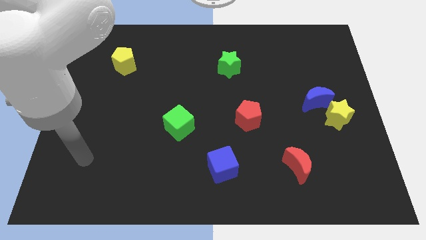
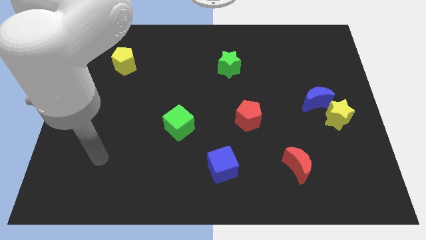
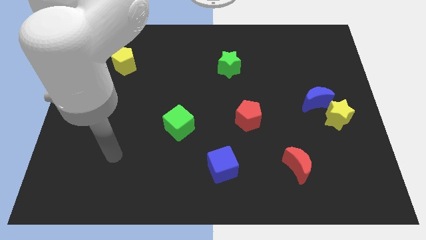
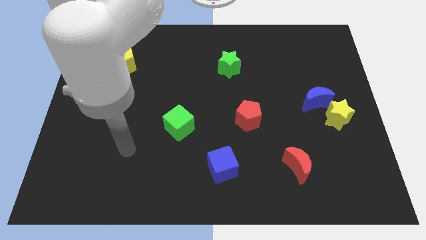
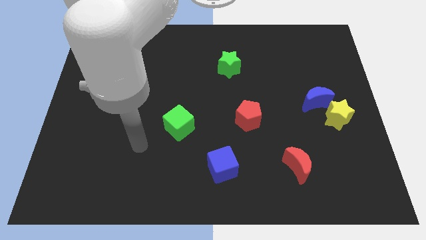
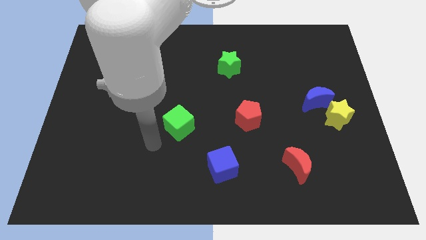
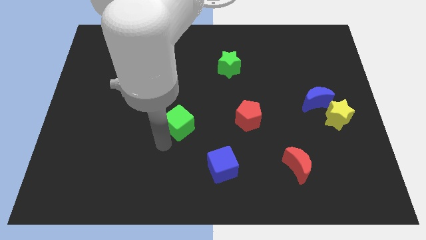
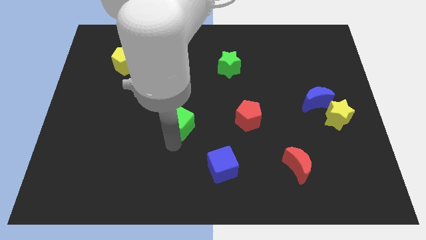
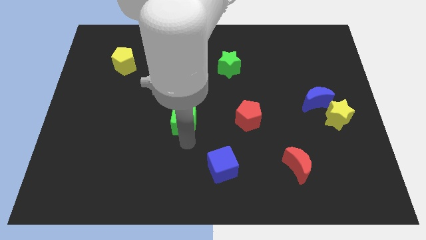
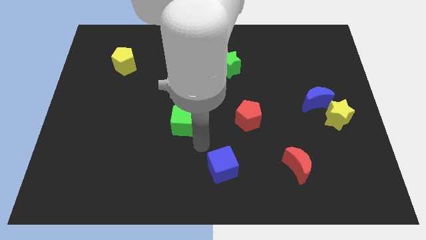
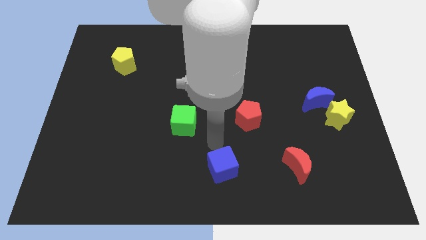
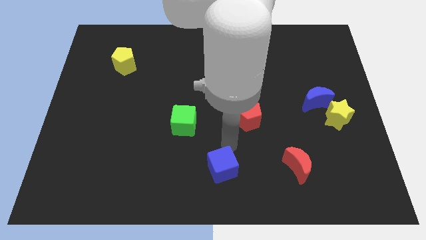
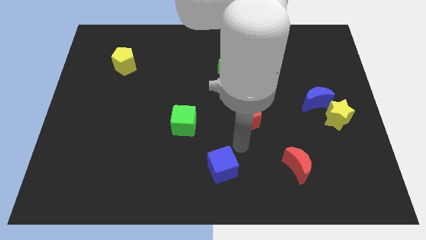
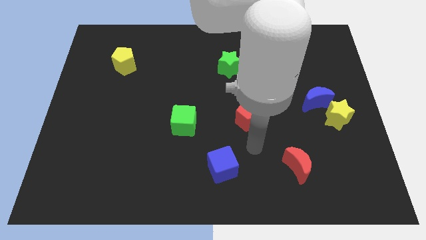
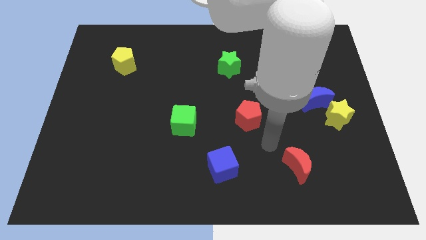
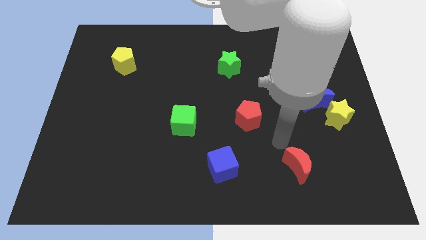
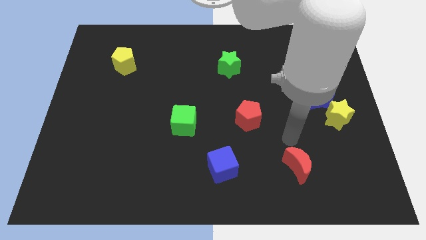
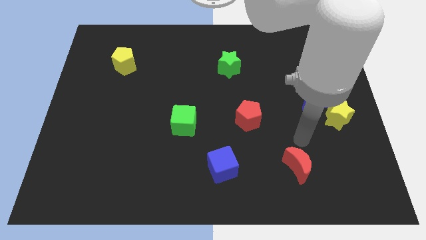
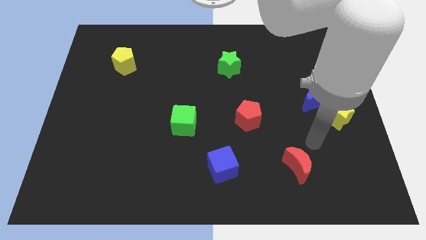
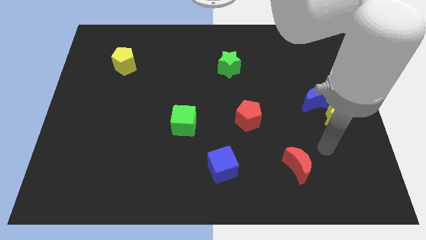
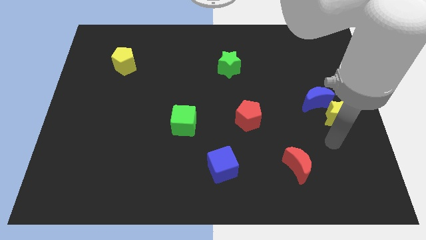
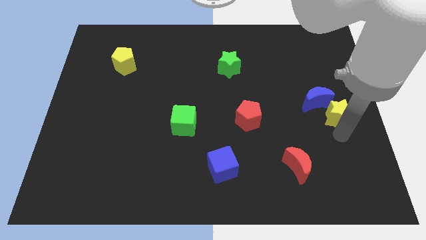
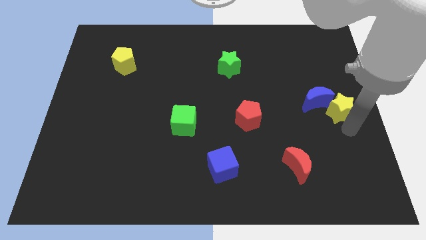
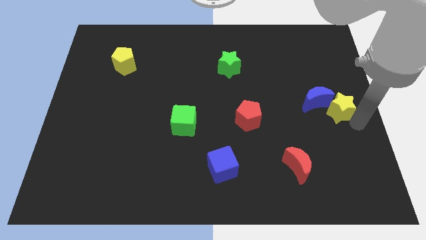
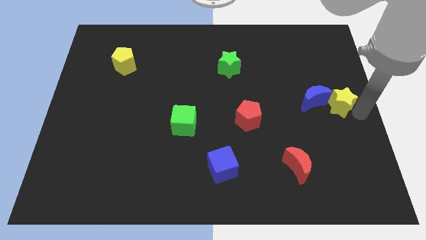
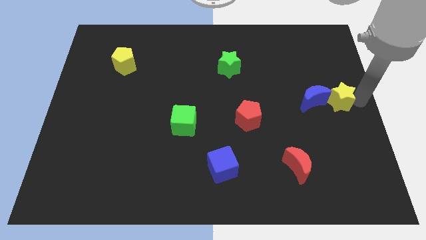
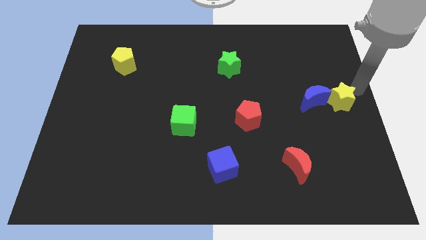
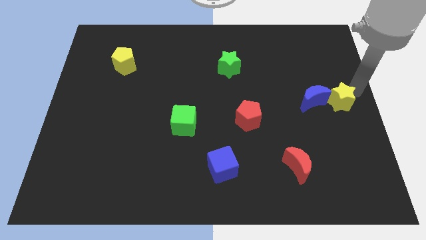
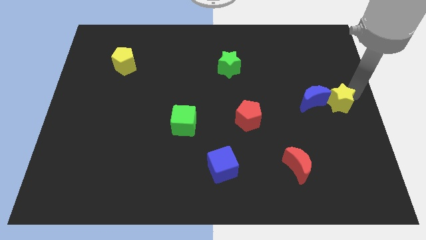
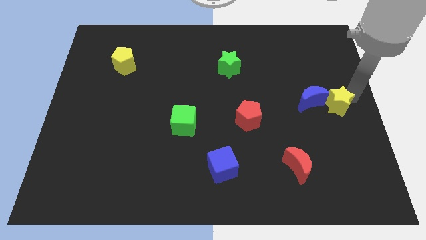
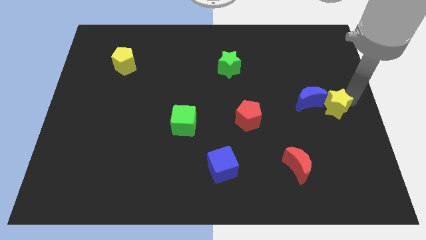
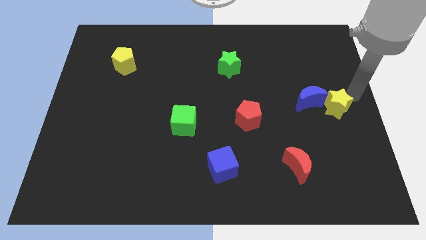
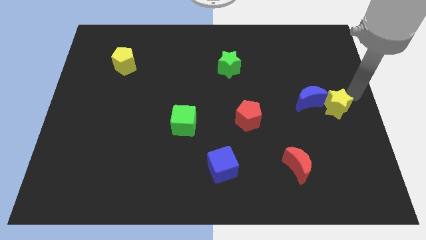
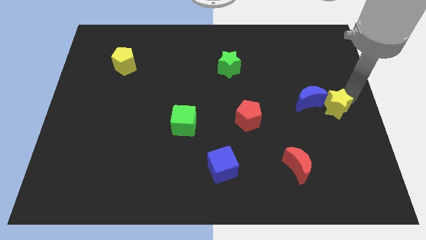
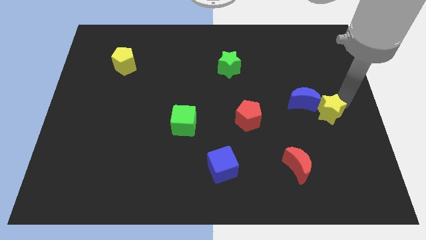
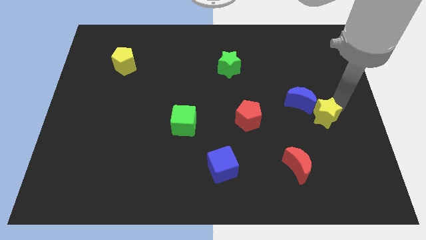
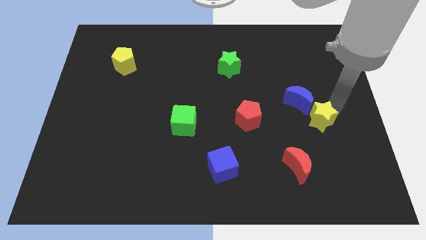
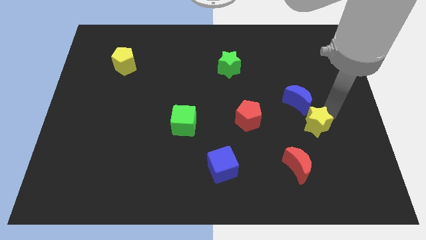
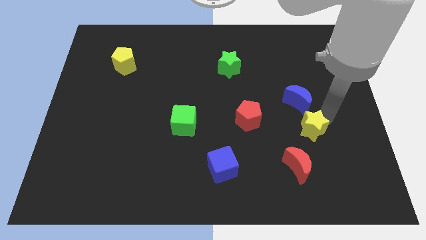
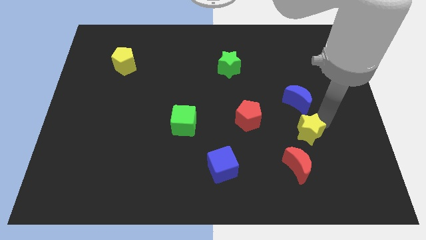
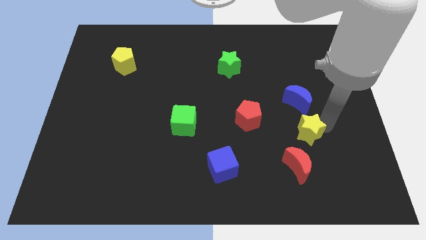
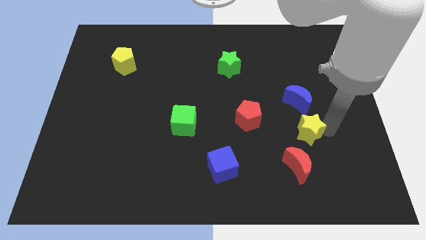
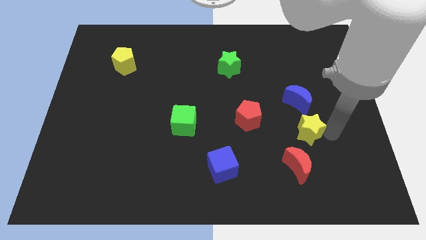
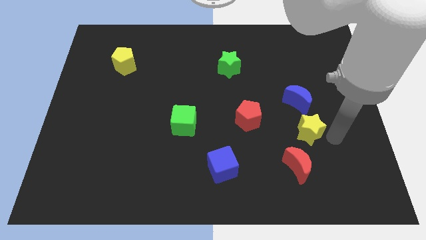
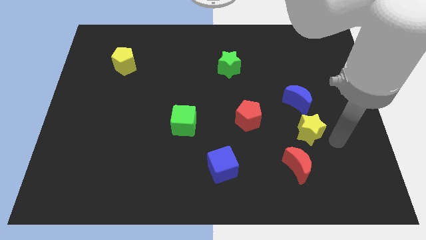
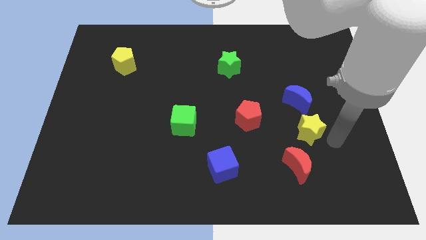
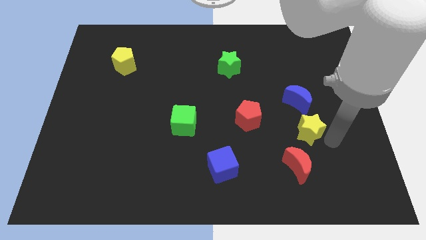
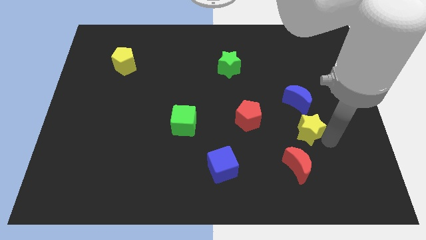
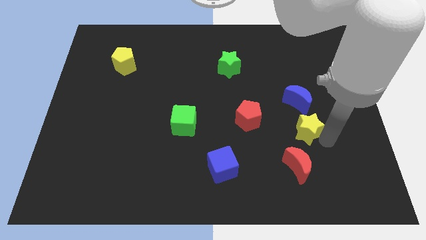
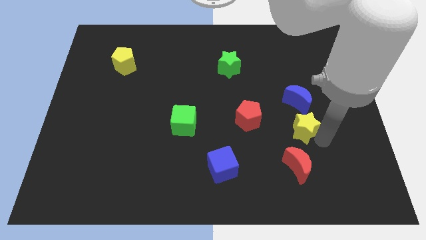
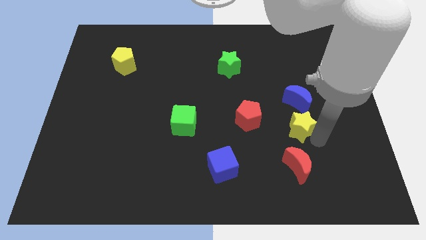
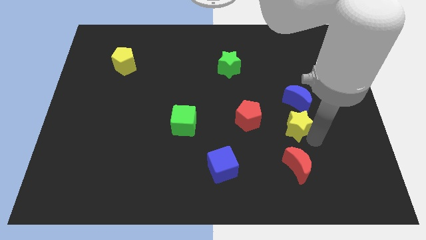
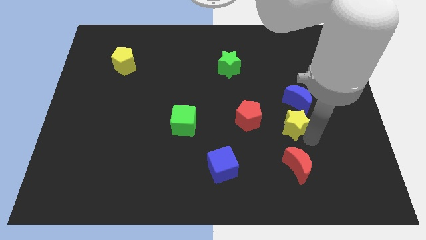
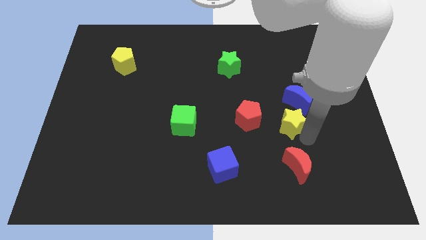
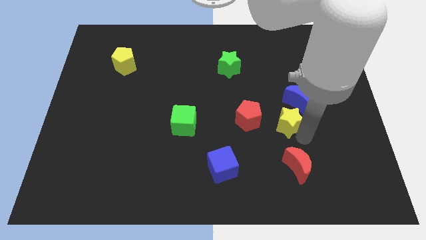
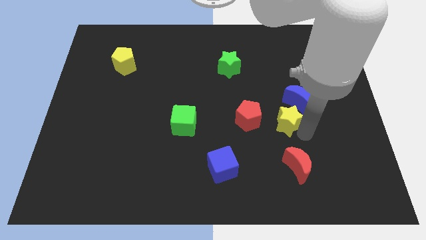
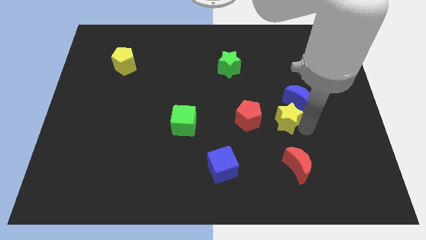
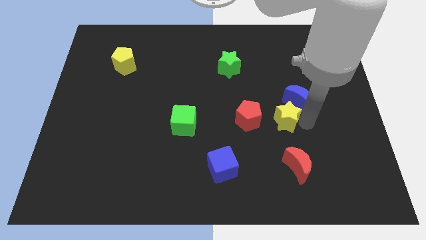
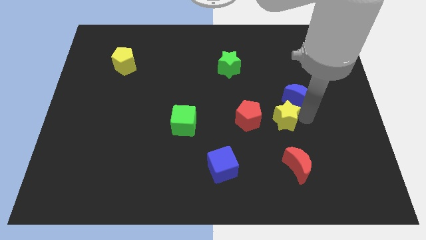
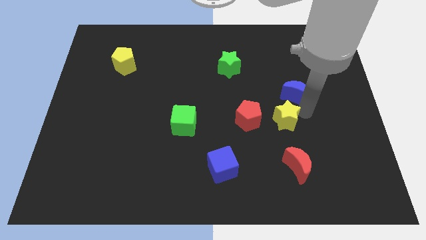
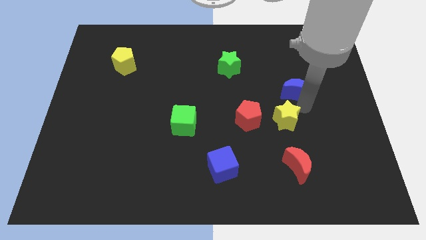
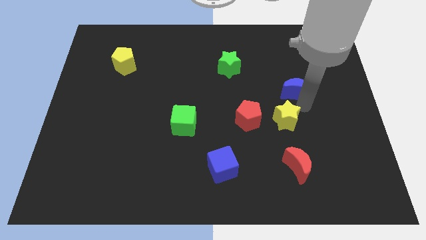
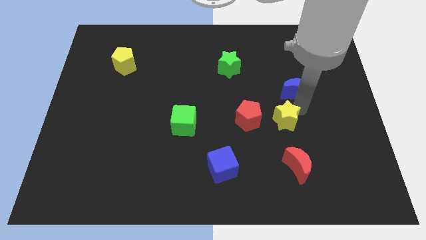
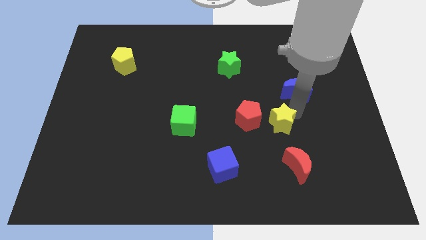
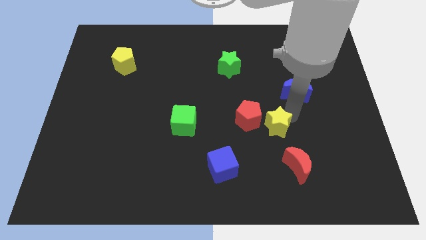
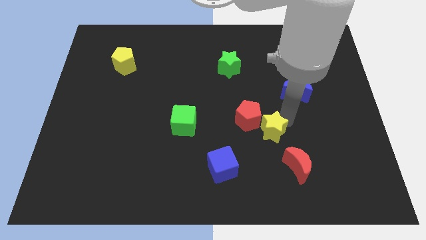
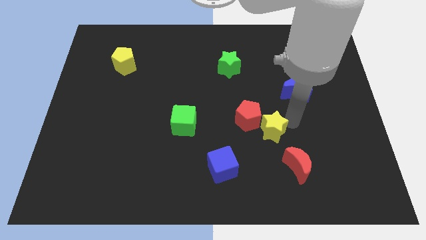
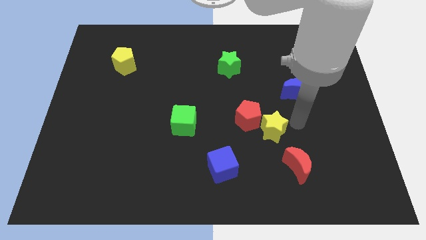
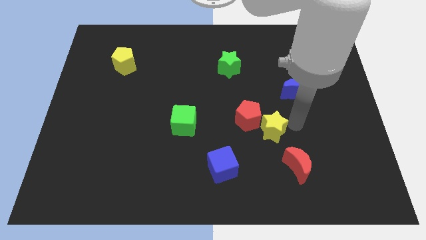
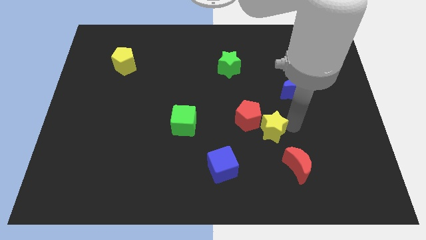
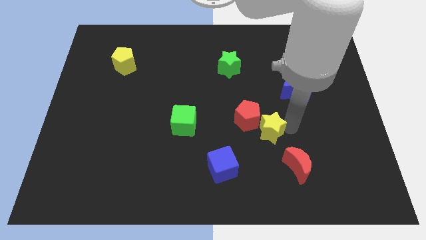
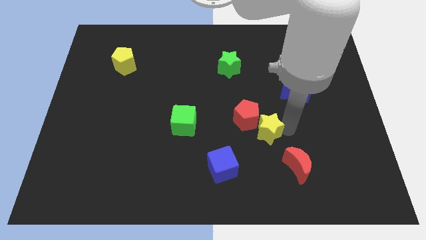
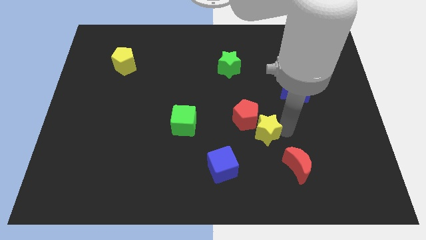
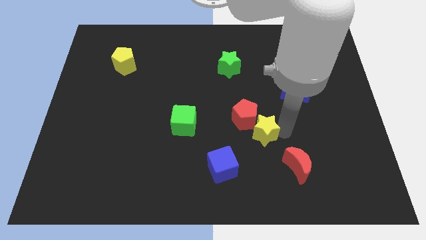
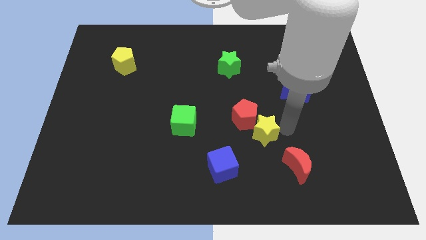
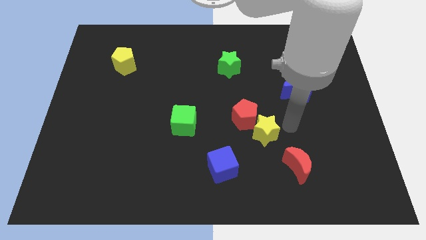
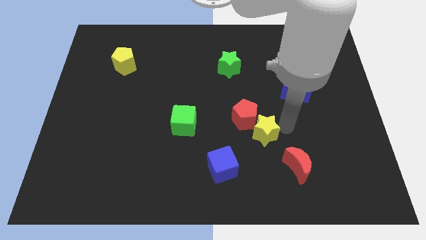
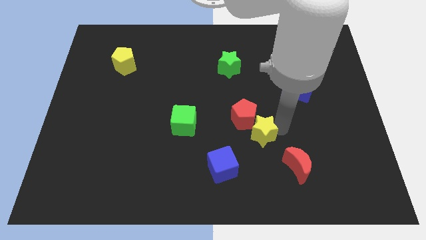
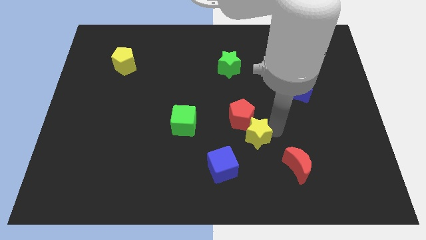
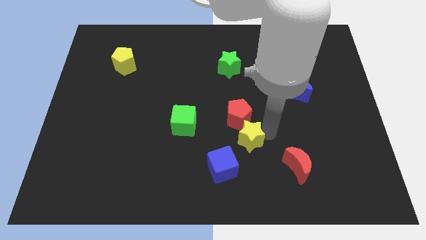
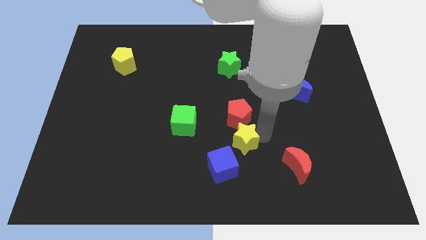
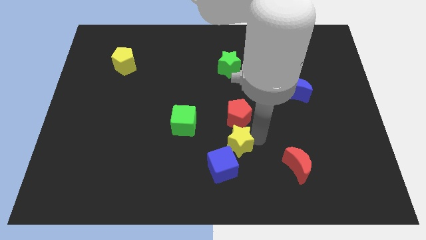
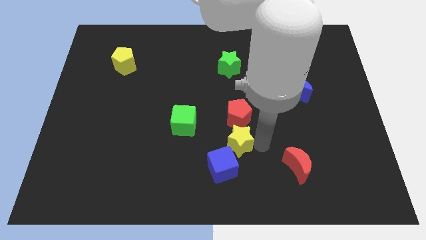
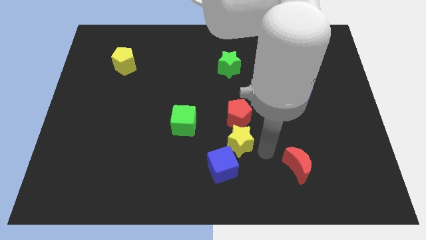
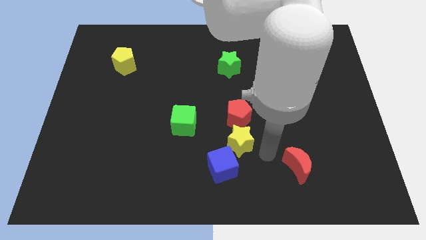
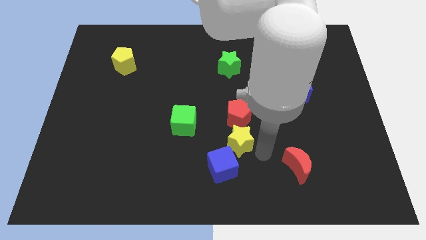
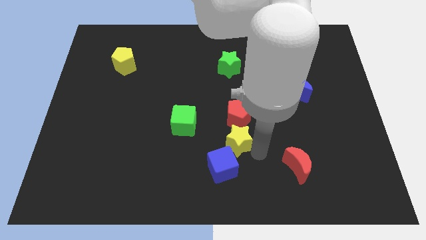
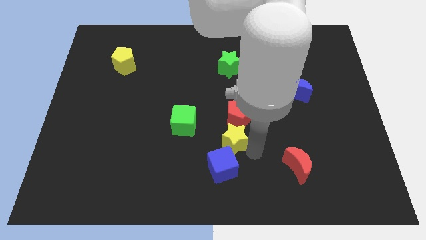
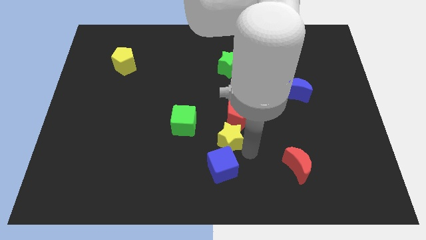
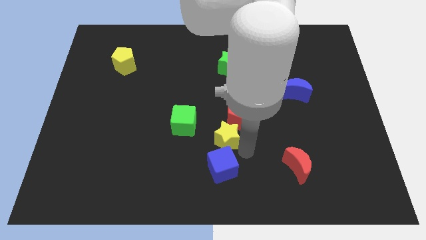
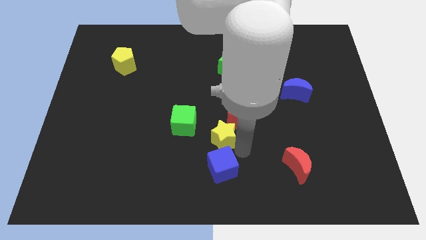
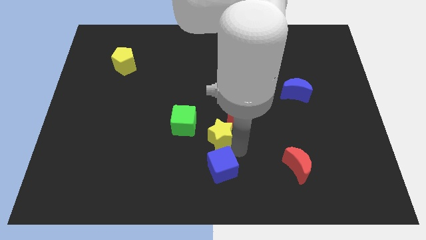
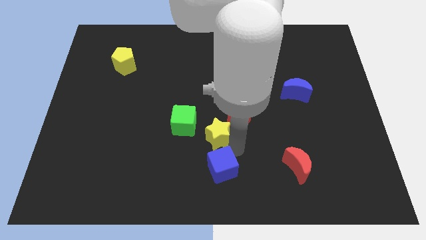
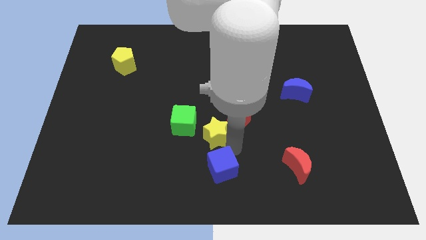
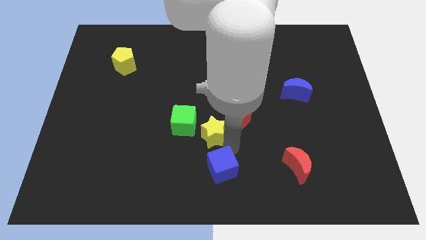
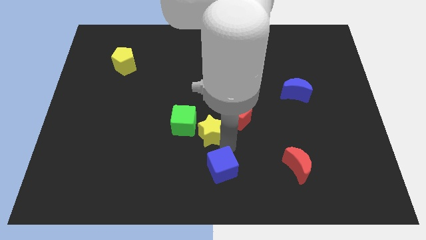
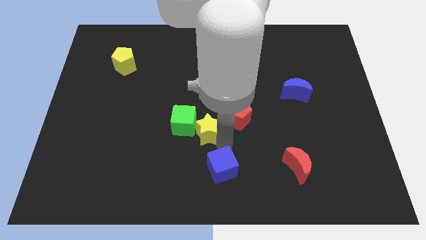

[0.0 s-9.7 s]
move the yellow star towards the green cube
